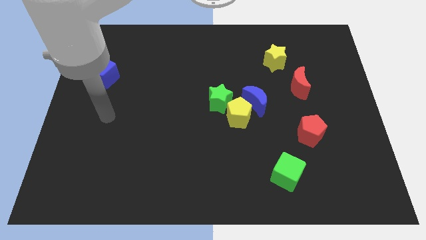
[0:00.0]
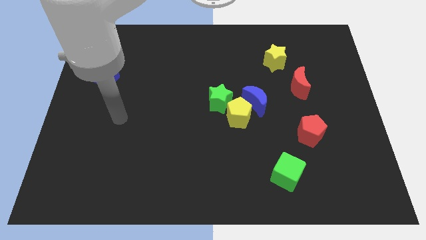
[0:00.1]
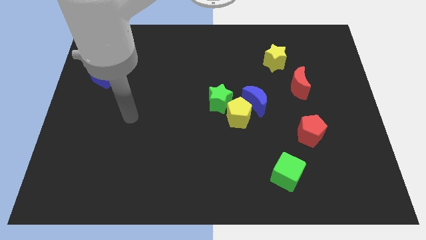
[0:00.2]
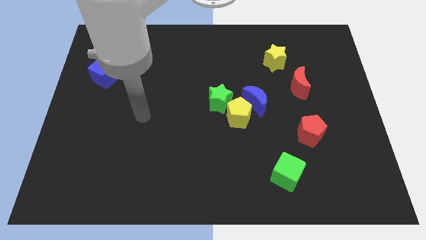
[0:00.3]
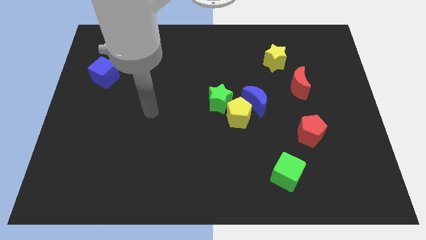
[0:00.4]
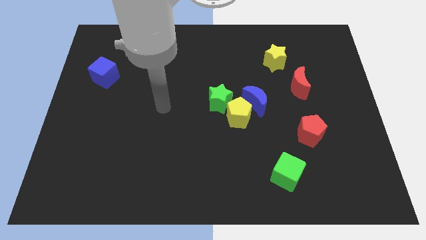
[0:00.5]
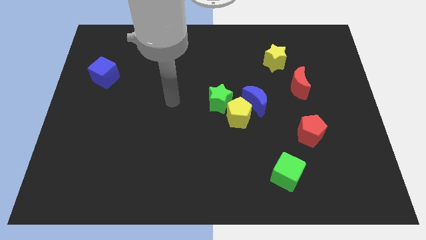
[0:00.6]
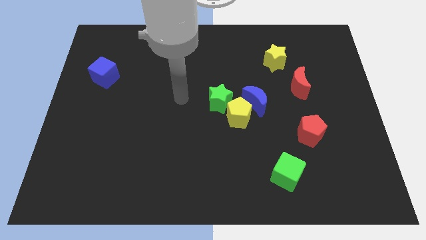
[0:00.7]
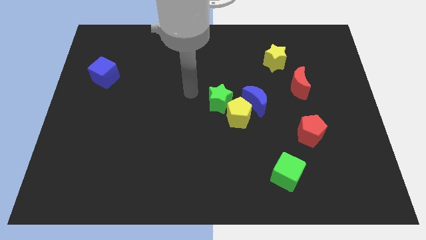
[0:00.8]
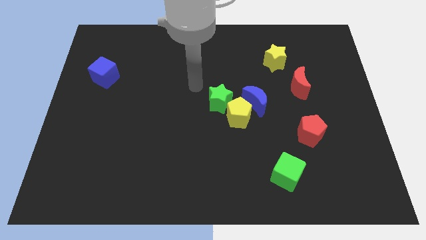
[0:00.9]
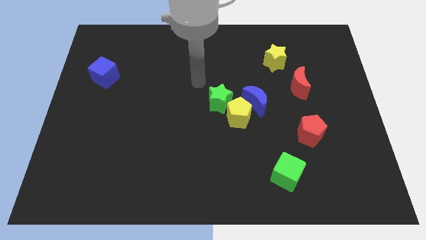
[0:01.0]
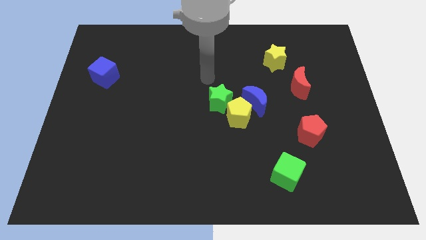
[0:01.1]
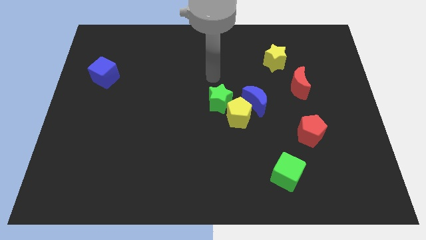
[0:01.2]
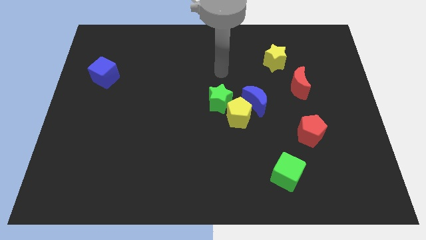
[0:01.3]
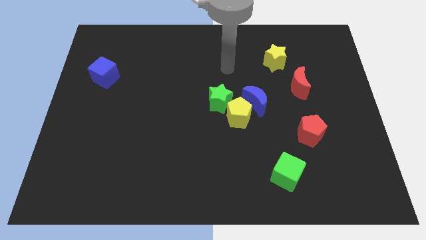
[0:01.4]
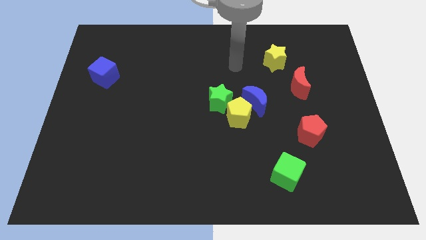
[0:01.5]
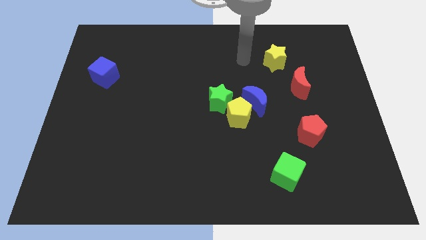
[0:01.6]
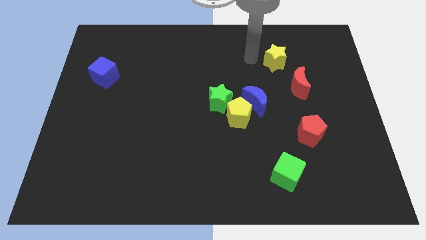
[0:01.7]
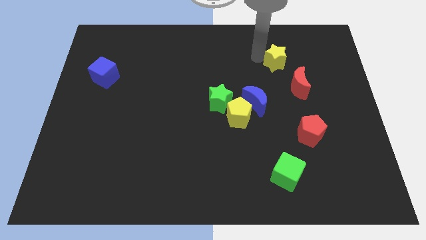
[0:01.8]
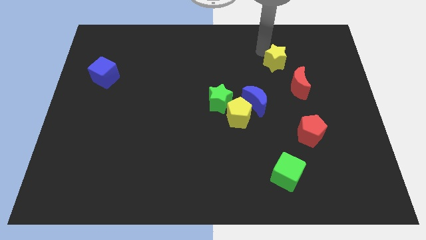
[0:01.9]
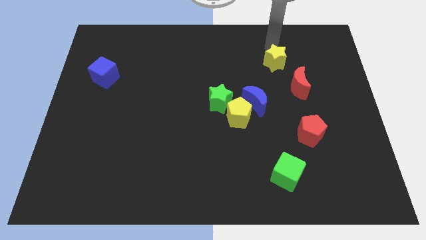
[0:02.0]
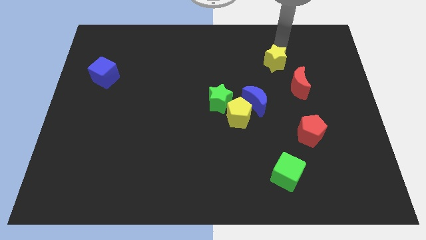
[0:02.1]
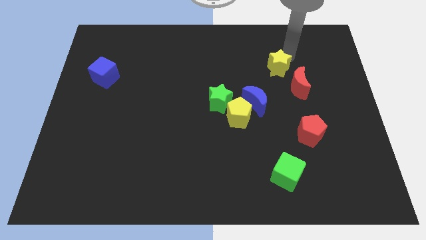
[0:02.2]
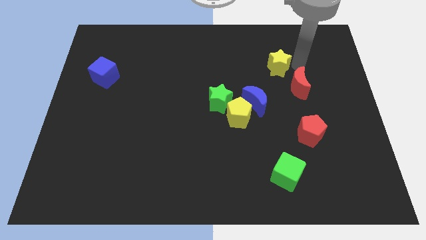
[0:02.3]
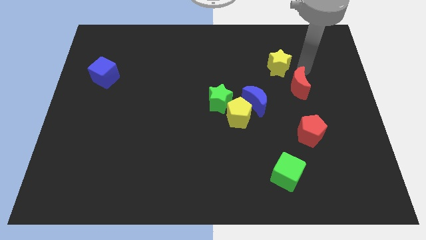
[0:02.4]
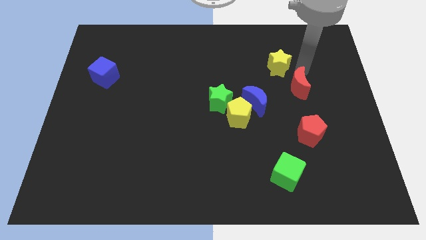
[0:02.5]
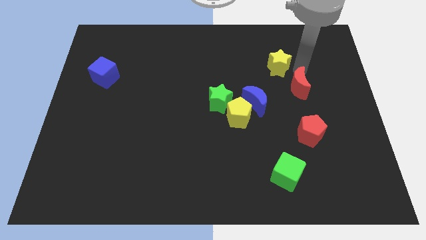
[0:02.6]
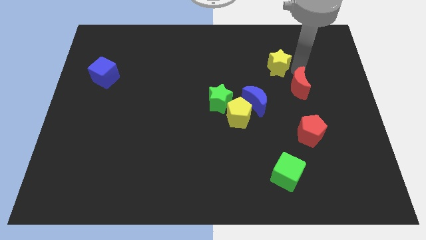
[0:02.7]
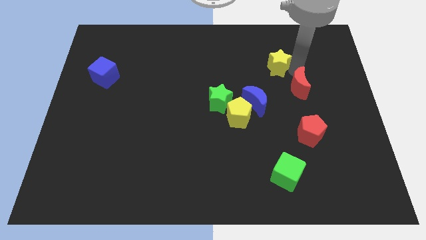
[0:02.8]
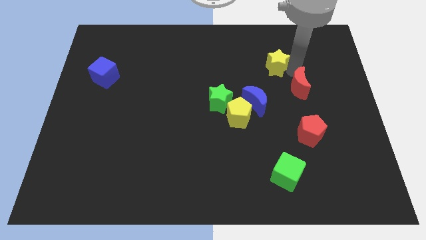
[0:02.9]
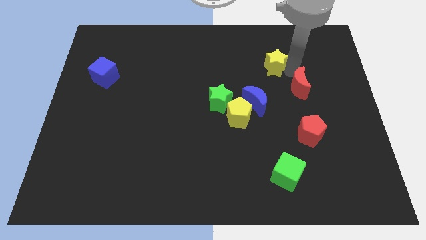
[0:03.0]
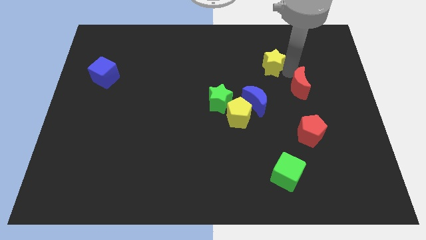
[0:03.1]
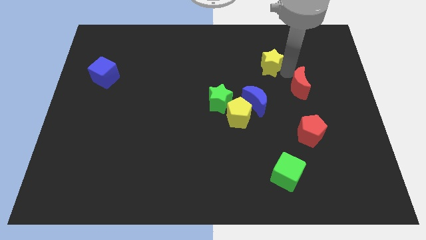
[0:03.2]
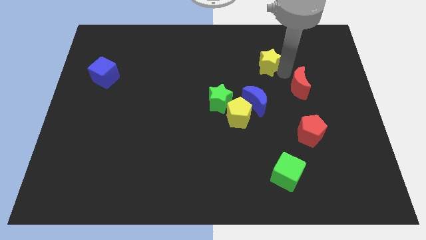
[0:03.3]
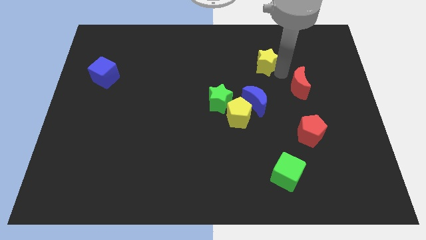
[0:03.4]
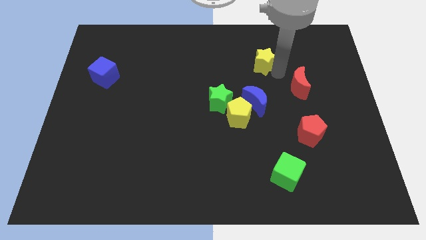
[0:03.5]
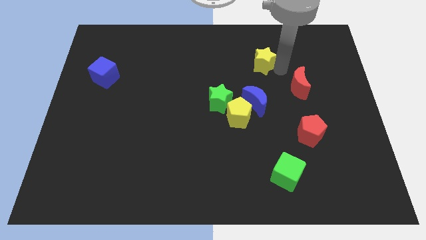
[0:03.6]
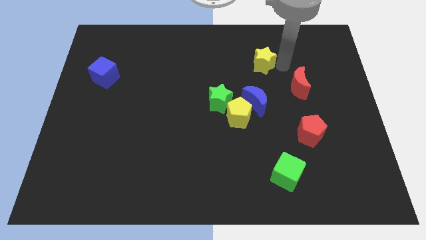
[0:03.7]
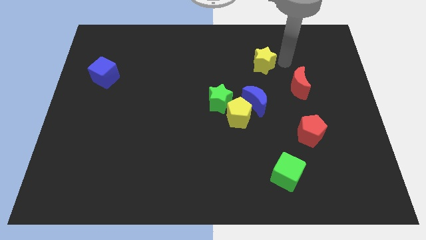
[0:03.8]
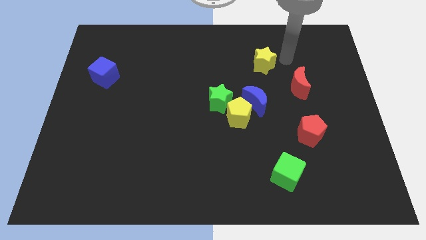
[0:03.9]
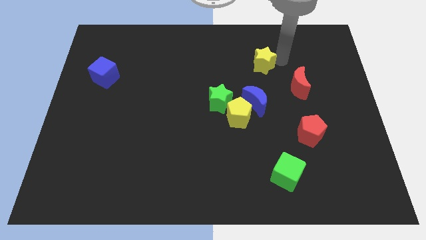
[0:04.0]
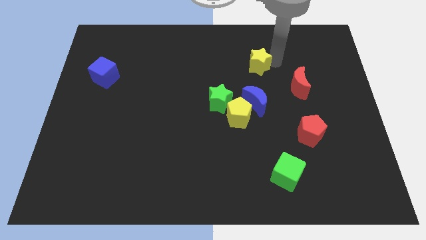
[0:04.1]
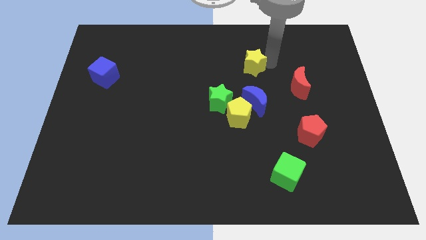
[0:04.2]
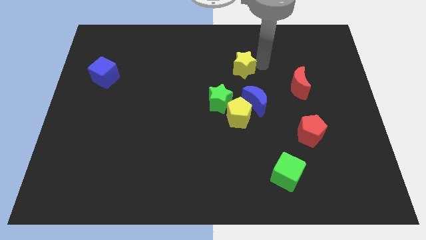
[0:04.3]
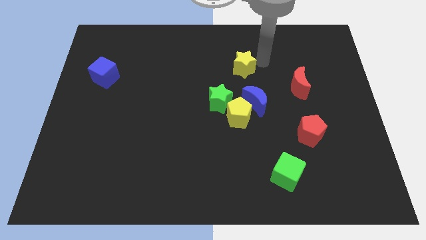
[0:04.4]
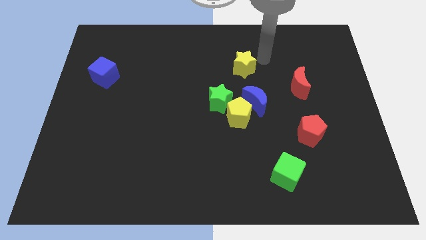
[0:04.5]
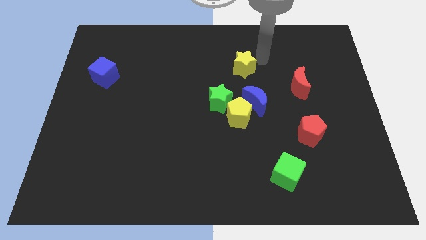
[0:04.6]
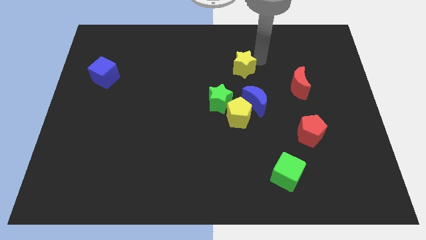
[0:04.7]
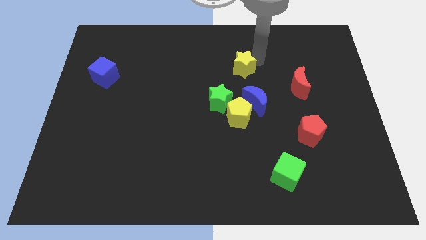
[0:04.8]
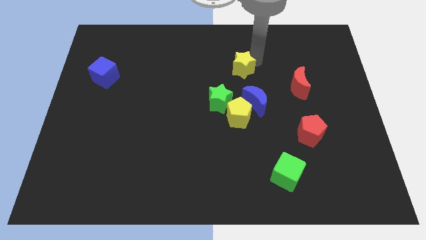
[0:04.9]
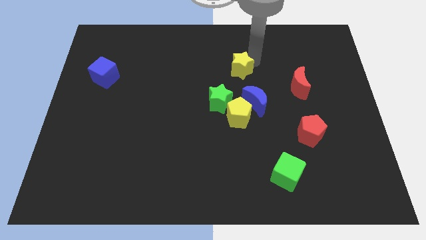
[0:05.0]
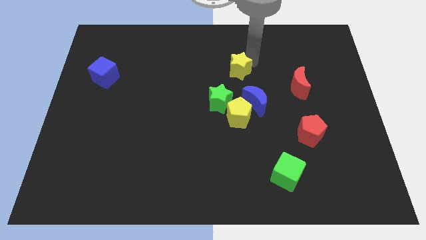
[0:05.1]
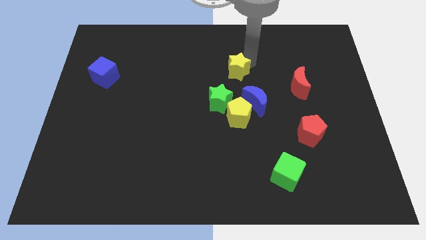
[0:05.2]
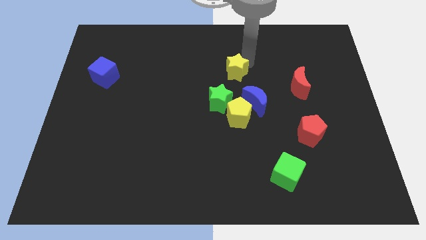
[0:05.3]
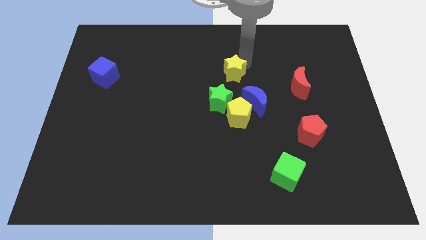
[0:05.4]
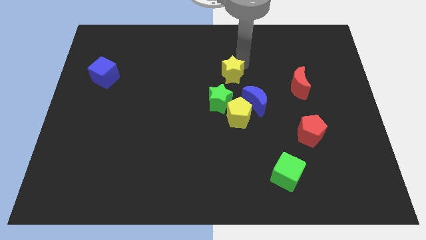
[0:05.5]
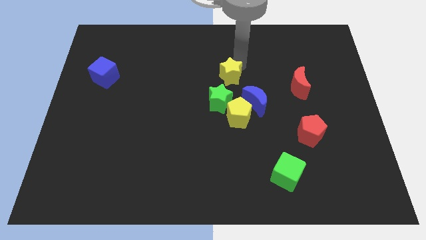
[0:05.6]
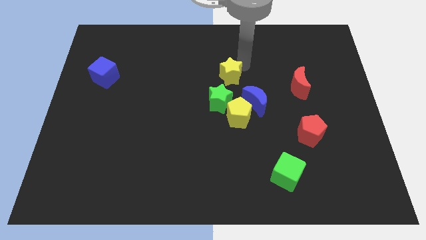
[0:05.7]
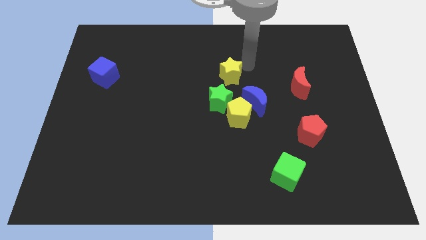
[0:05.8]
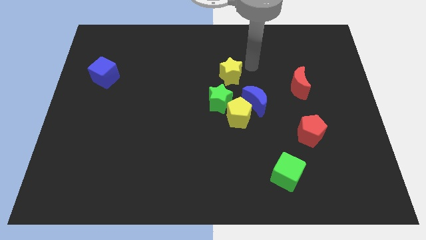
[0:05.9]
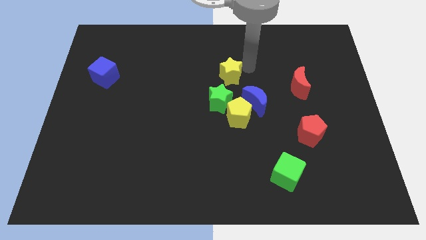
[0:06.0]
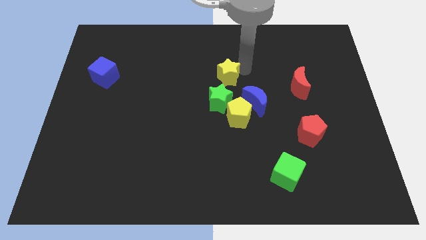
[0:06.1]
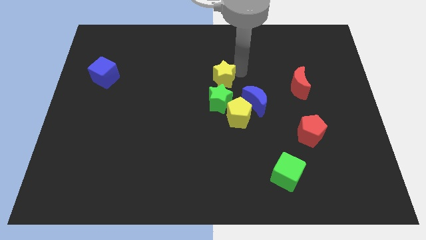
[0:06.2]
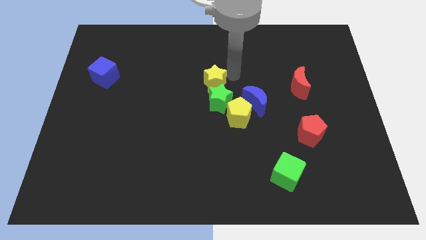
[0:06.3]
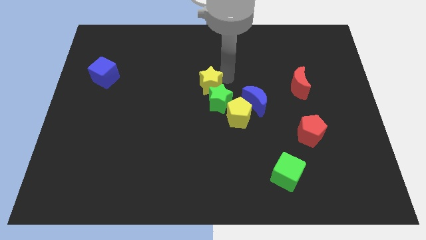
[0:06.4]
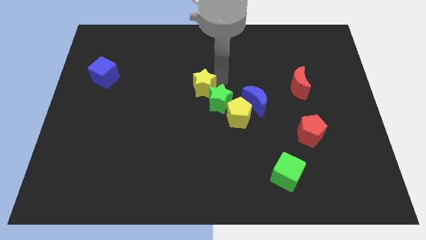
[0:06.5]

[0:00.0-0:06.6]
slide the yellow star to the left of the green star

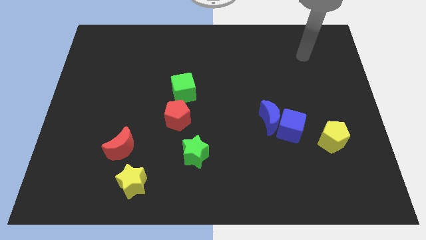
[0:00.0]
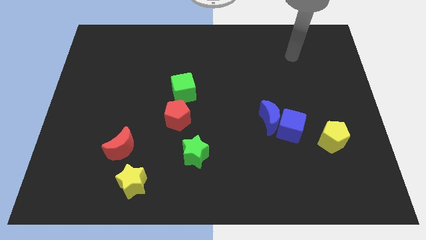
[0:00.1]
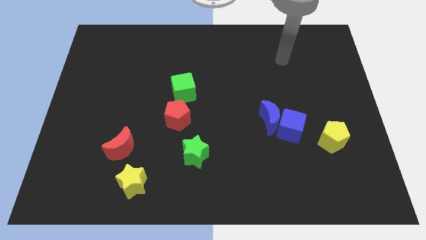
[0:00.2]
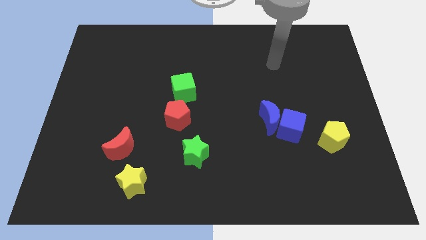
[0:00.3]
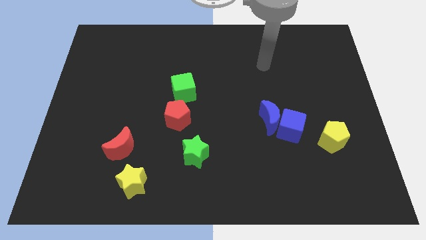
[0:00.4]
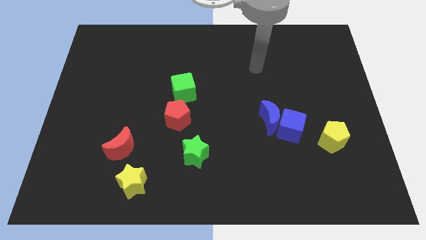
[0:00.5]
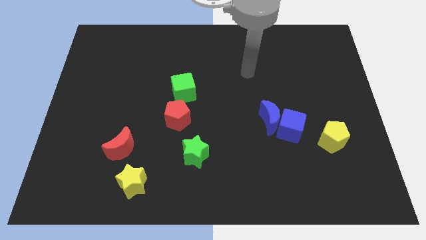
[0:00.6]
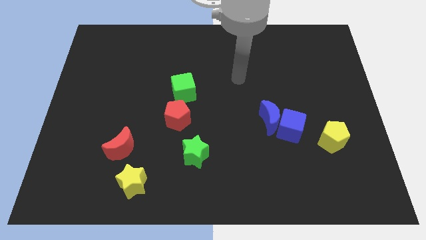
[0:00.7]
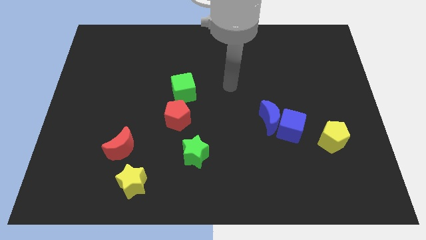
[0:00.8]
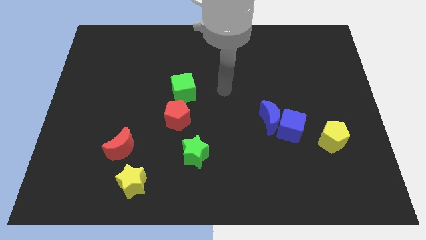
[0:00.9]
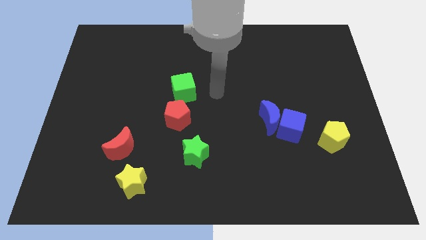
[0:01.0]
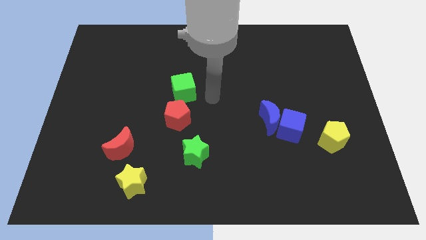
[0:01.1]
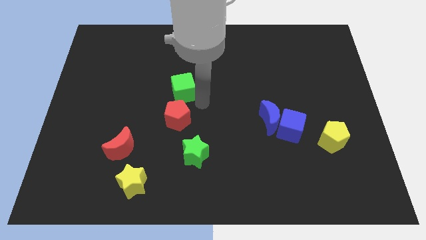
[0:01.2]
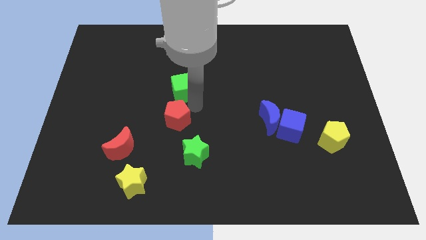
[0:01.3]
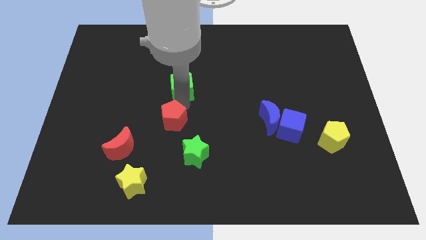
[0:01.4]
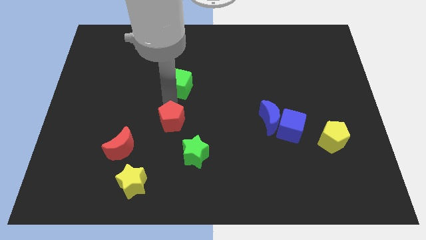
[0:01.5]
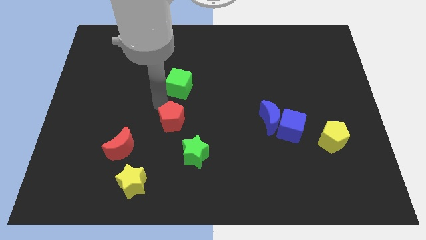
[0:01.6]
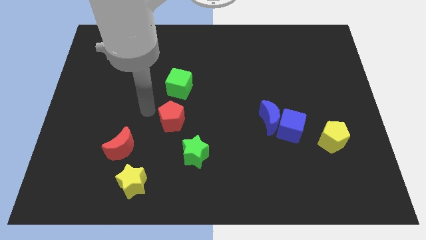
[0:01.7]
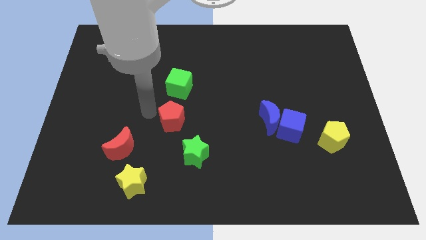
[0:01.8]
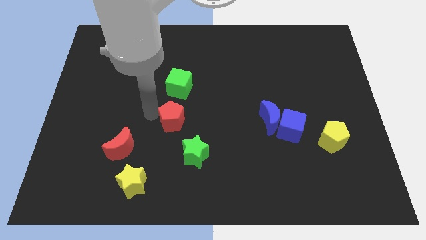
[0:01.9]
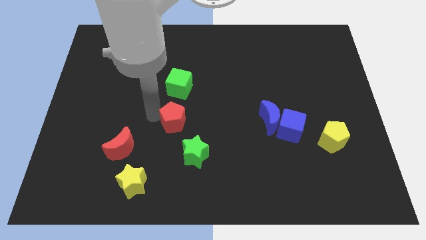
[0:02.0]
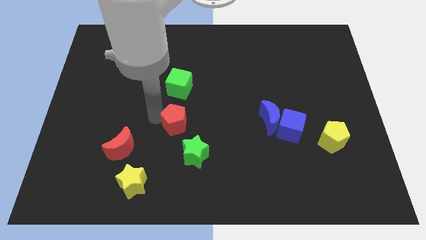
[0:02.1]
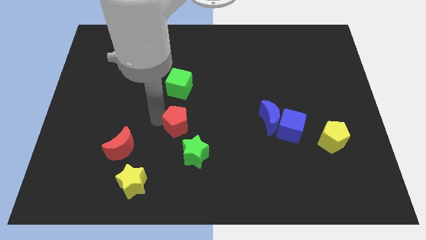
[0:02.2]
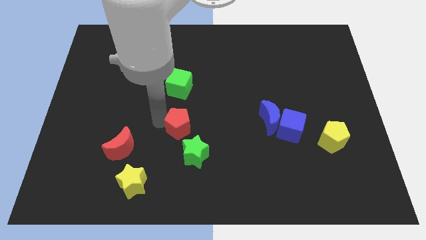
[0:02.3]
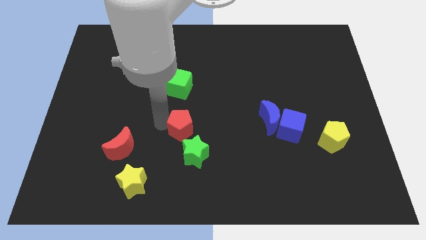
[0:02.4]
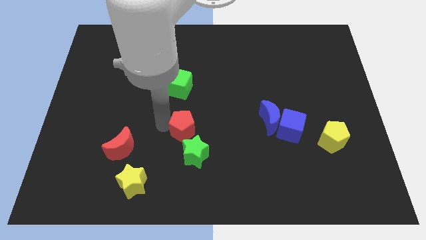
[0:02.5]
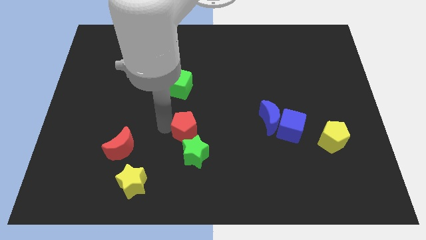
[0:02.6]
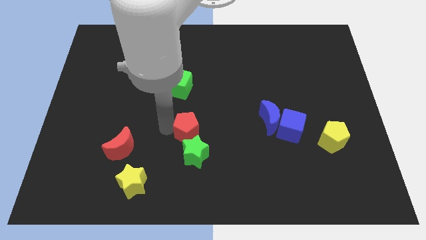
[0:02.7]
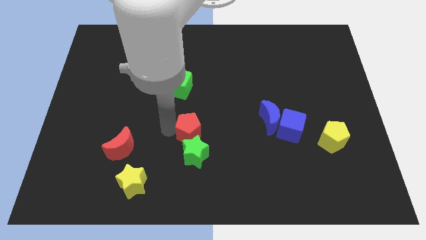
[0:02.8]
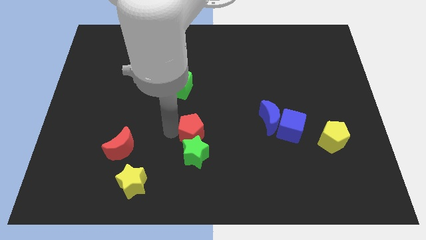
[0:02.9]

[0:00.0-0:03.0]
push the red pentagon diagonally up and to the right of the green star
